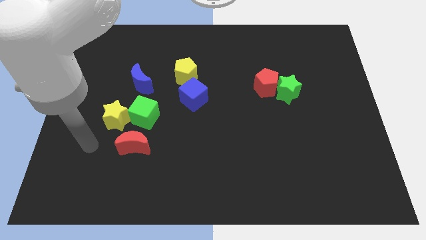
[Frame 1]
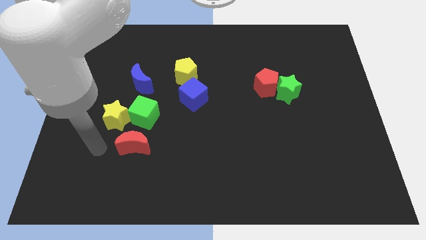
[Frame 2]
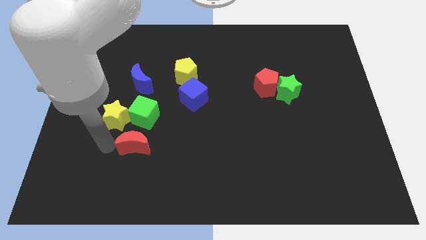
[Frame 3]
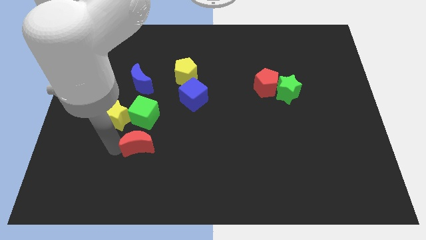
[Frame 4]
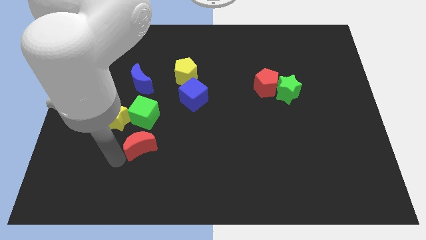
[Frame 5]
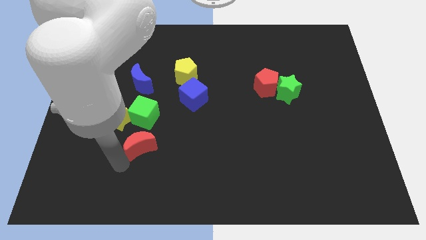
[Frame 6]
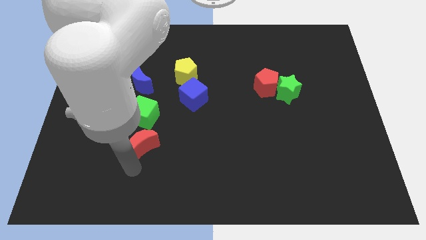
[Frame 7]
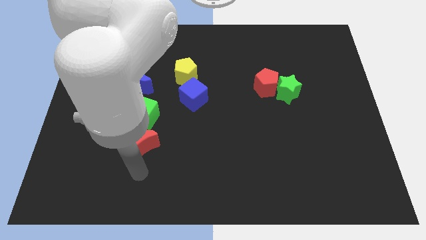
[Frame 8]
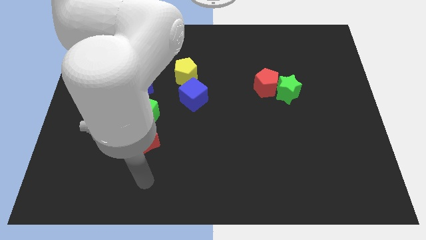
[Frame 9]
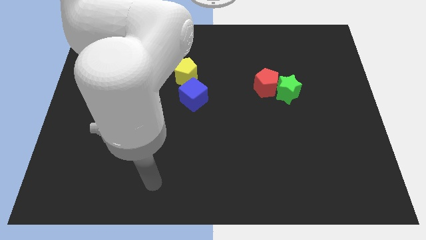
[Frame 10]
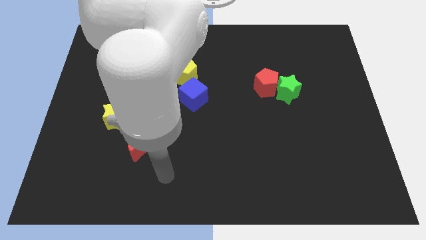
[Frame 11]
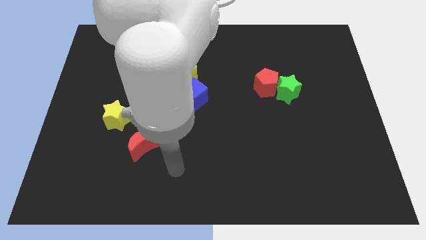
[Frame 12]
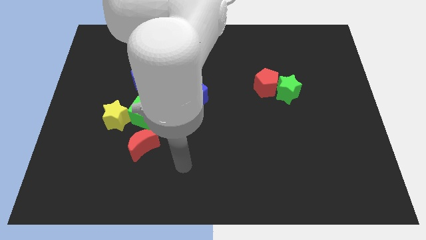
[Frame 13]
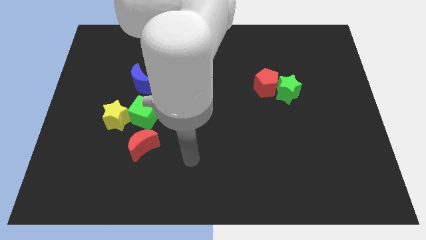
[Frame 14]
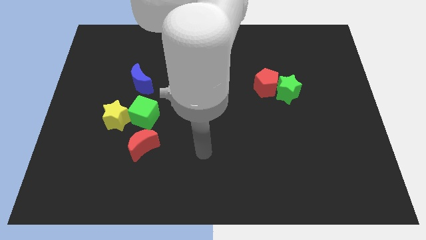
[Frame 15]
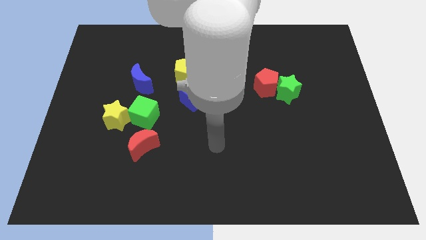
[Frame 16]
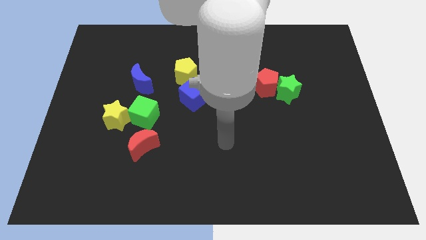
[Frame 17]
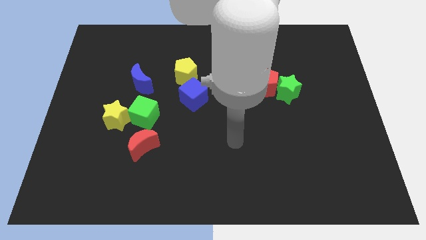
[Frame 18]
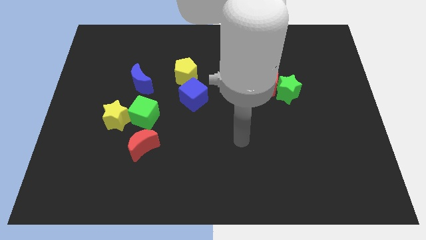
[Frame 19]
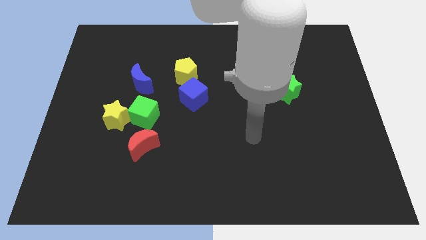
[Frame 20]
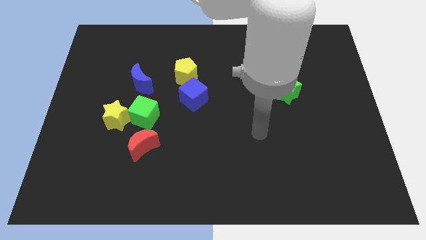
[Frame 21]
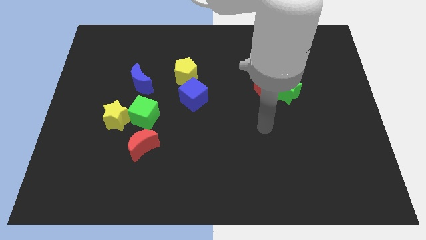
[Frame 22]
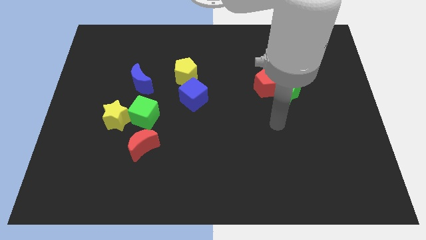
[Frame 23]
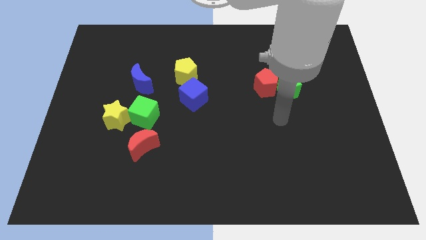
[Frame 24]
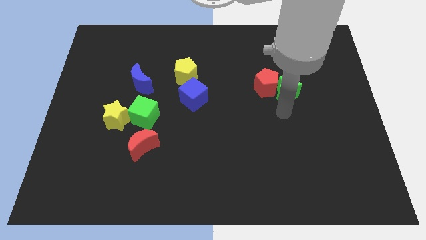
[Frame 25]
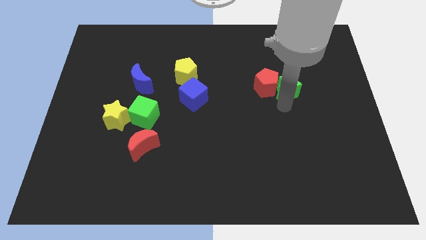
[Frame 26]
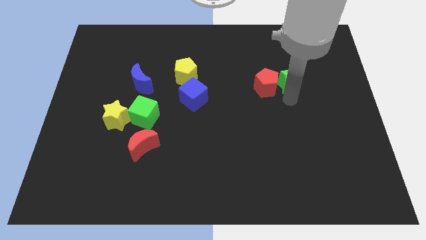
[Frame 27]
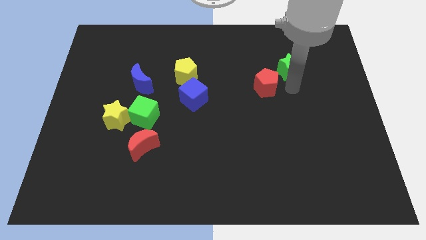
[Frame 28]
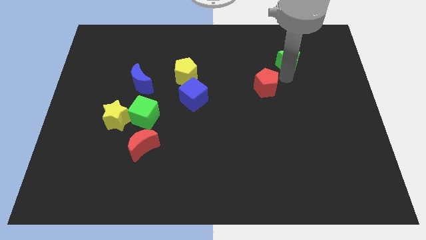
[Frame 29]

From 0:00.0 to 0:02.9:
separate the red pentagon from the green star

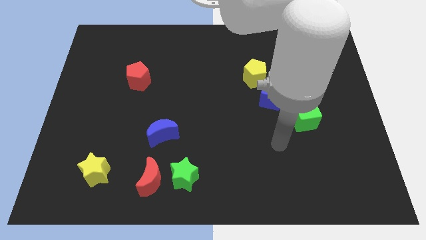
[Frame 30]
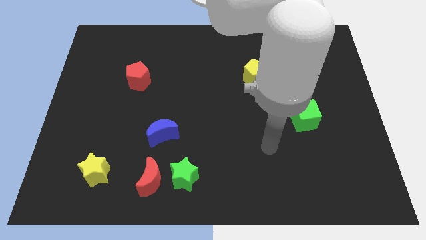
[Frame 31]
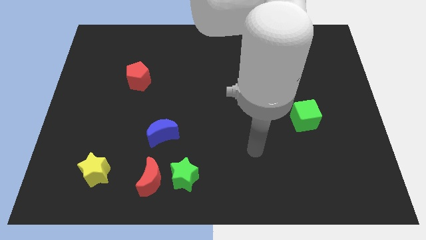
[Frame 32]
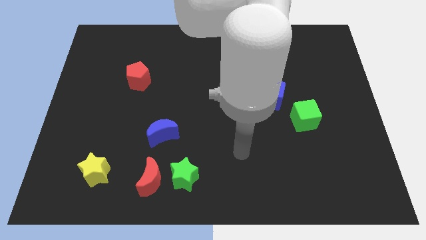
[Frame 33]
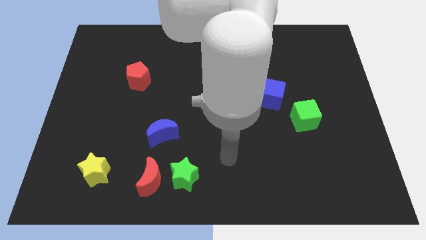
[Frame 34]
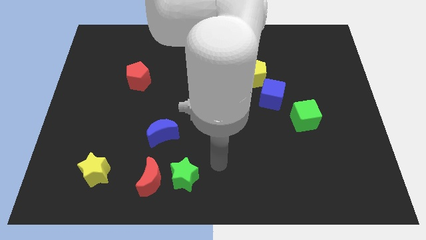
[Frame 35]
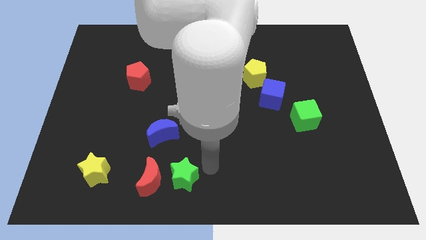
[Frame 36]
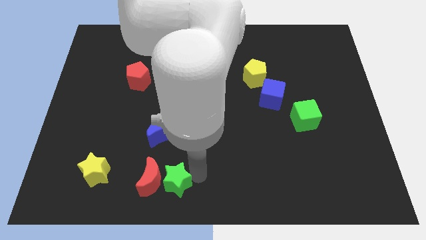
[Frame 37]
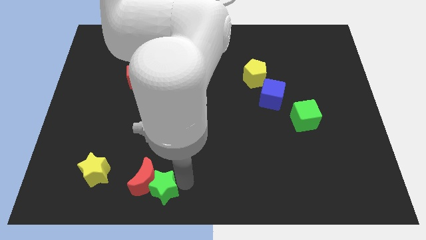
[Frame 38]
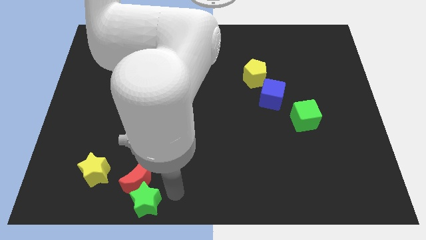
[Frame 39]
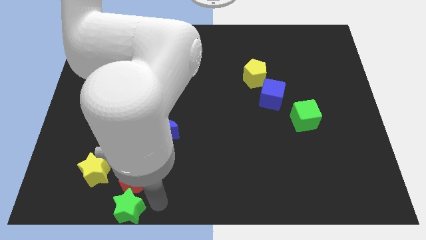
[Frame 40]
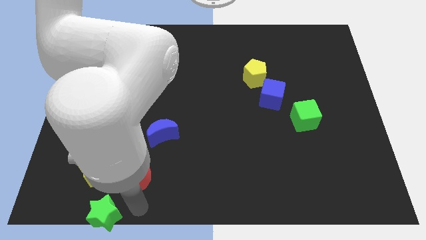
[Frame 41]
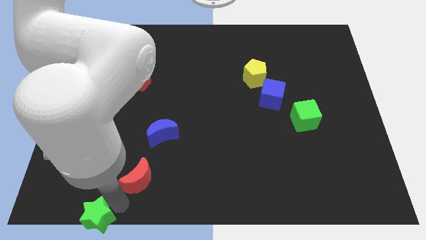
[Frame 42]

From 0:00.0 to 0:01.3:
move the red moon away from the green star

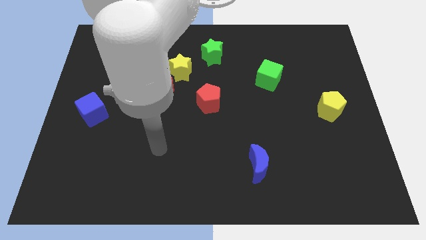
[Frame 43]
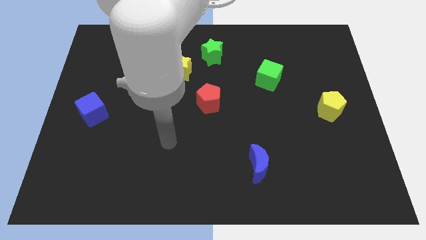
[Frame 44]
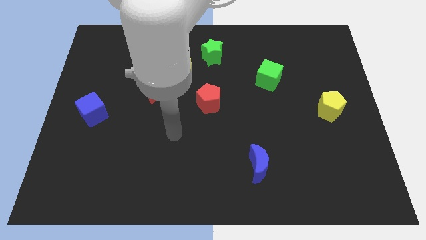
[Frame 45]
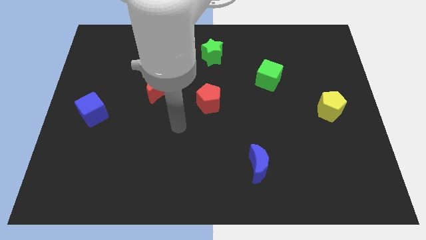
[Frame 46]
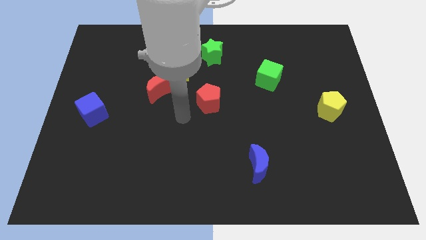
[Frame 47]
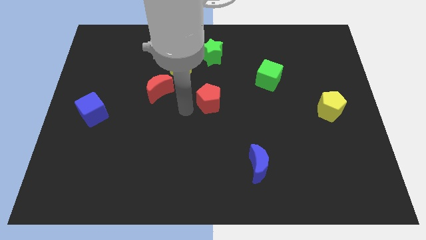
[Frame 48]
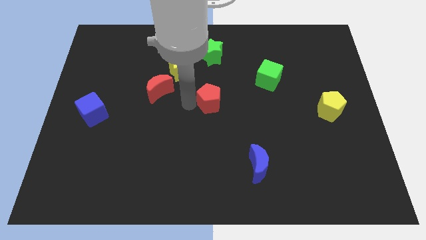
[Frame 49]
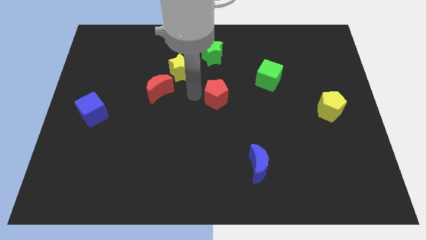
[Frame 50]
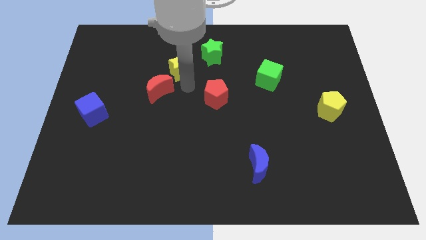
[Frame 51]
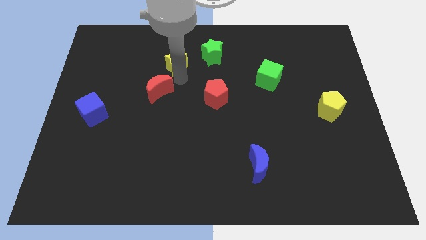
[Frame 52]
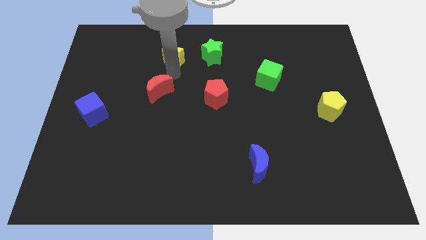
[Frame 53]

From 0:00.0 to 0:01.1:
separate the red moon from the yellow star

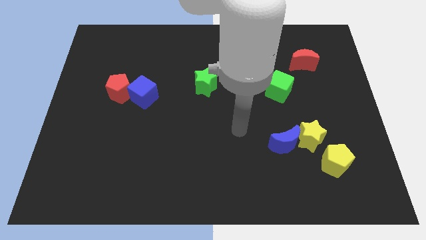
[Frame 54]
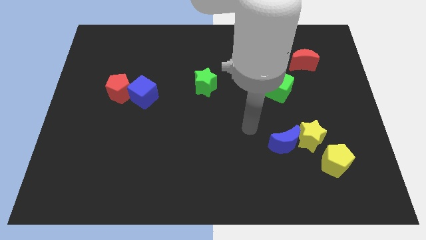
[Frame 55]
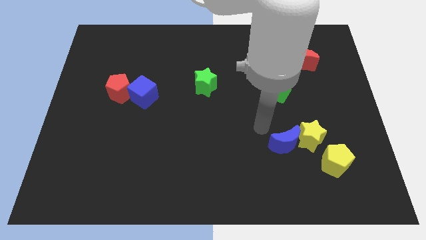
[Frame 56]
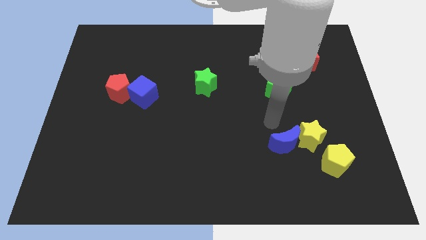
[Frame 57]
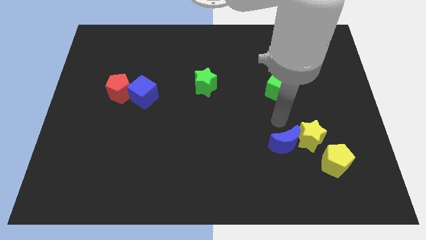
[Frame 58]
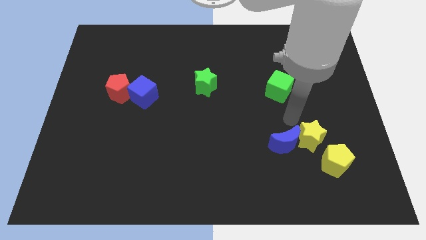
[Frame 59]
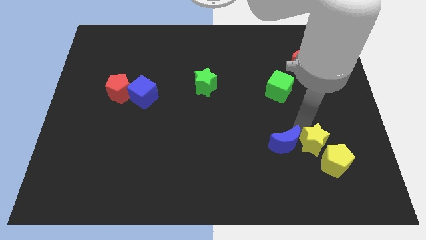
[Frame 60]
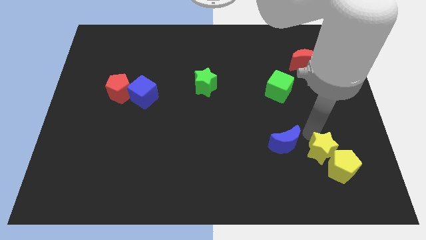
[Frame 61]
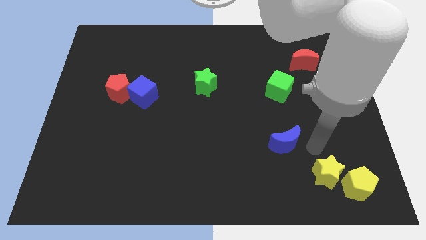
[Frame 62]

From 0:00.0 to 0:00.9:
separate the blue moon from the yellow star

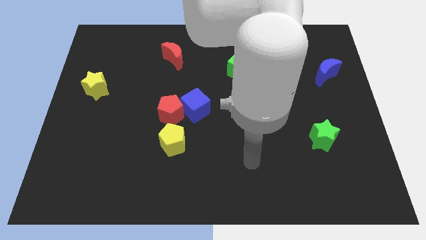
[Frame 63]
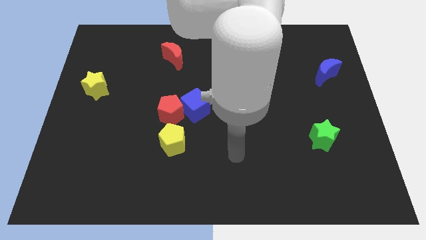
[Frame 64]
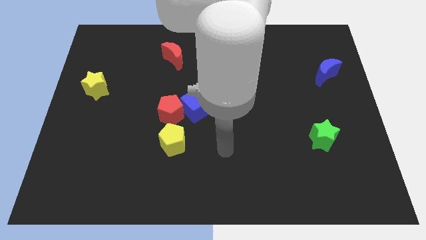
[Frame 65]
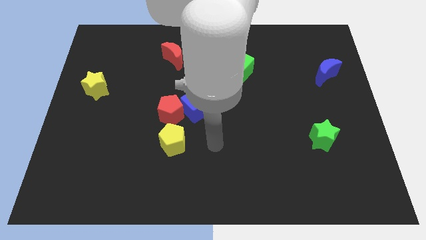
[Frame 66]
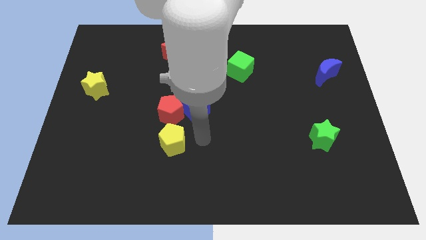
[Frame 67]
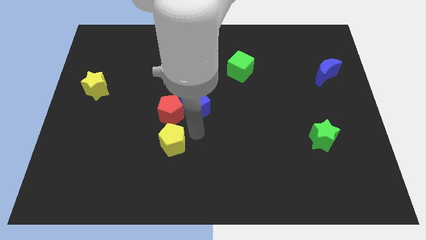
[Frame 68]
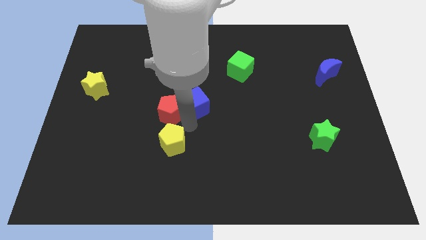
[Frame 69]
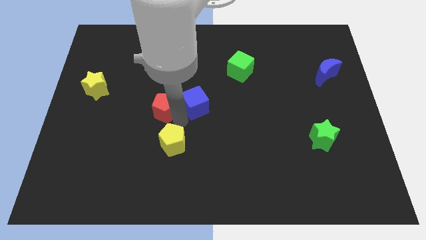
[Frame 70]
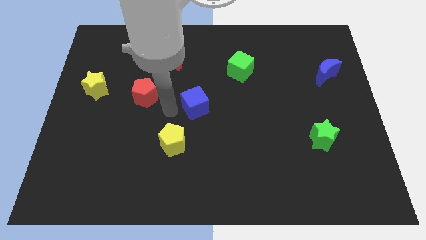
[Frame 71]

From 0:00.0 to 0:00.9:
separate the blue cube from the red pentagon

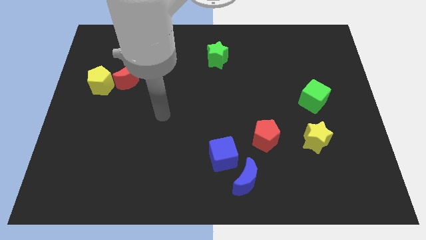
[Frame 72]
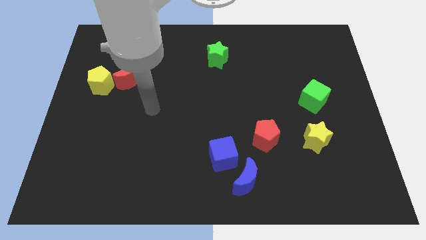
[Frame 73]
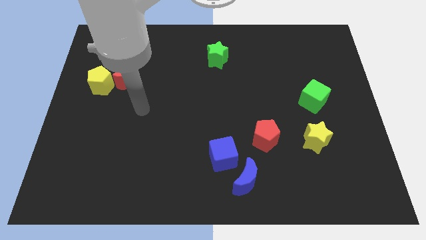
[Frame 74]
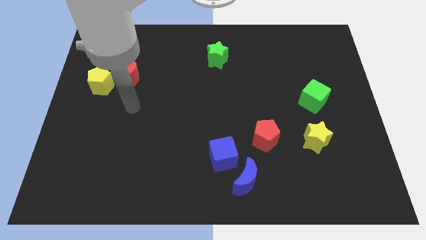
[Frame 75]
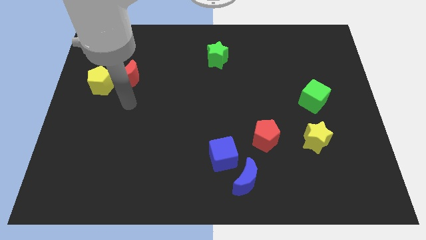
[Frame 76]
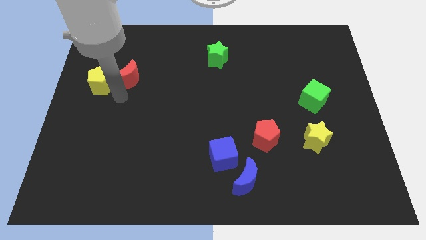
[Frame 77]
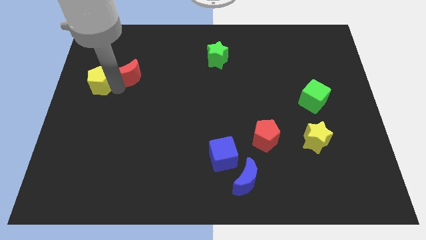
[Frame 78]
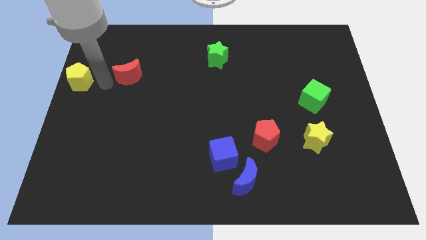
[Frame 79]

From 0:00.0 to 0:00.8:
separate the red moon from the yellow pentagon

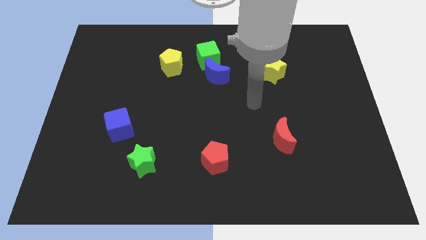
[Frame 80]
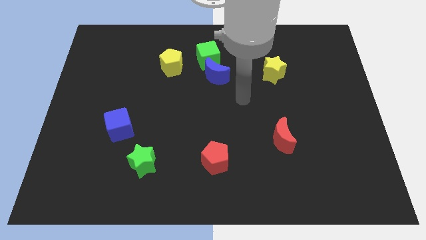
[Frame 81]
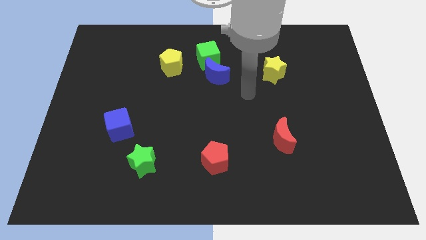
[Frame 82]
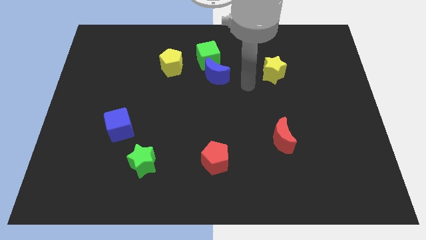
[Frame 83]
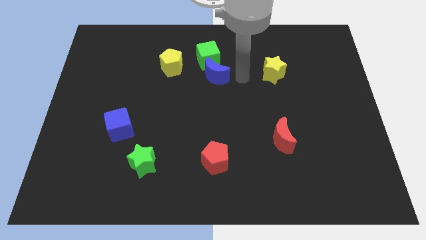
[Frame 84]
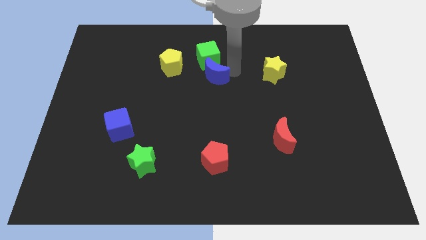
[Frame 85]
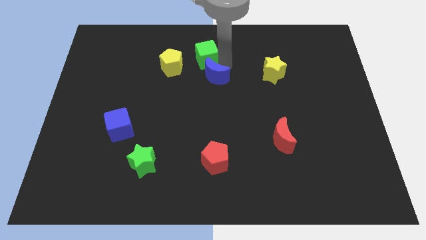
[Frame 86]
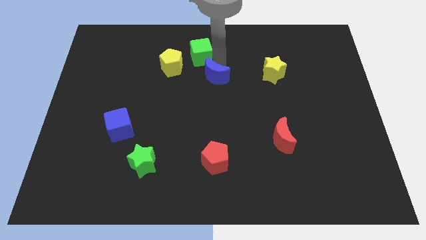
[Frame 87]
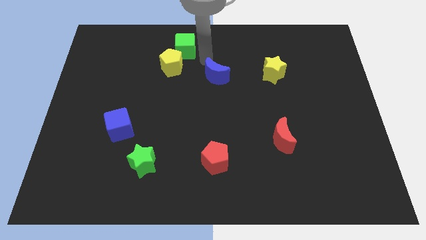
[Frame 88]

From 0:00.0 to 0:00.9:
pull the blue moon apart from the green cube

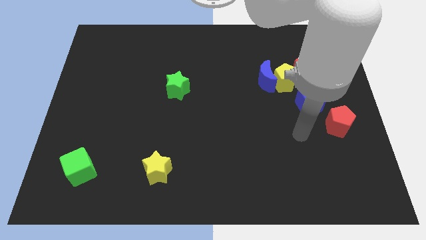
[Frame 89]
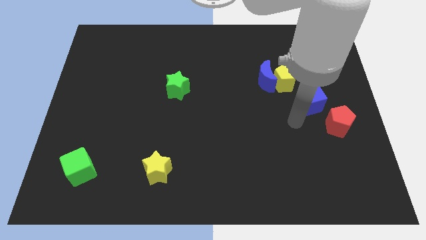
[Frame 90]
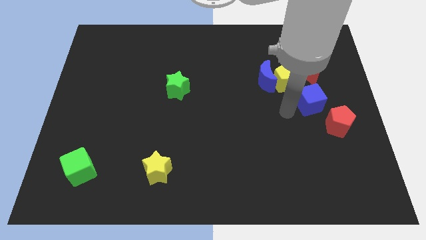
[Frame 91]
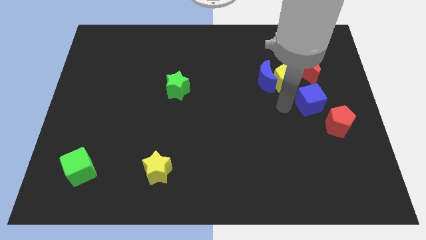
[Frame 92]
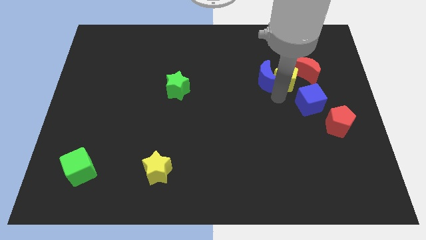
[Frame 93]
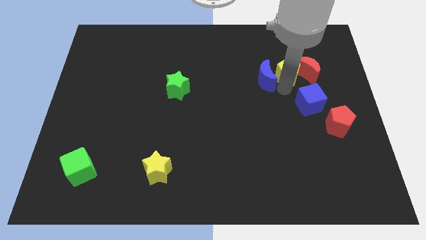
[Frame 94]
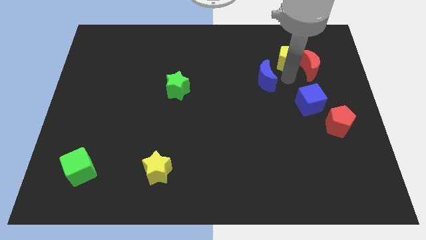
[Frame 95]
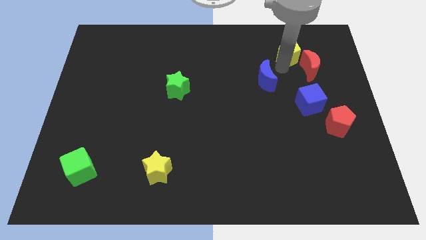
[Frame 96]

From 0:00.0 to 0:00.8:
pull the blue moon apart from the yellow pentagon
